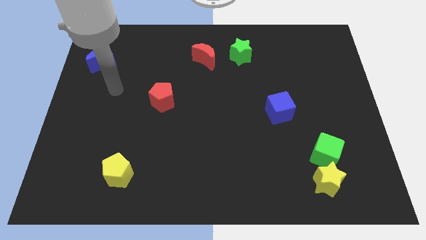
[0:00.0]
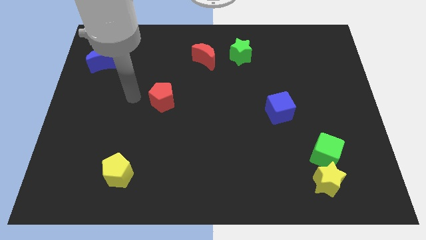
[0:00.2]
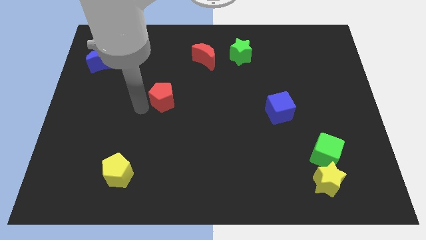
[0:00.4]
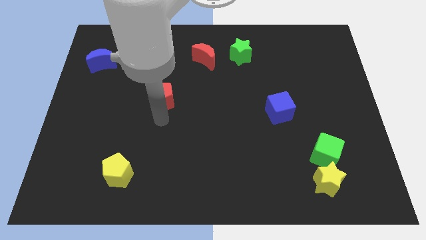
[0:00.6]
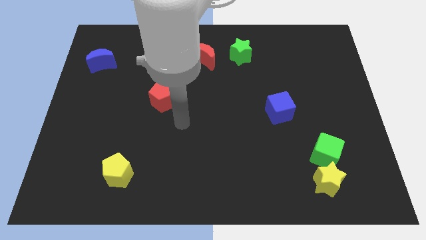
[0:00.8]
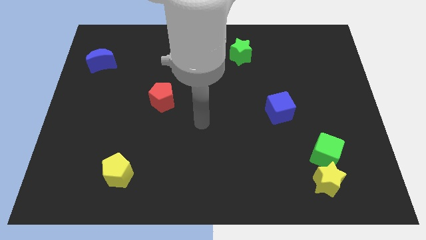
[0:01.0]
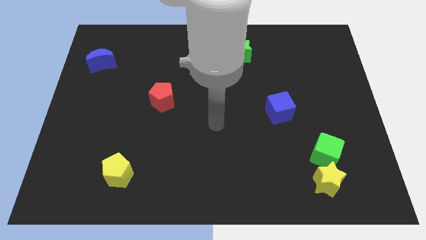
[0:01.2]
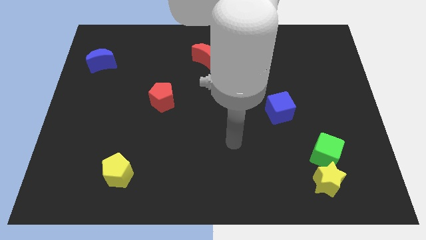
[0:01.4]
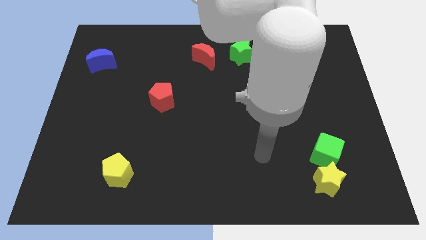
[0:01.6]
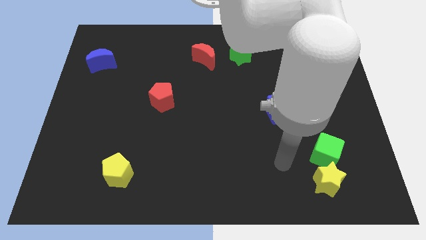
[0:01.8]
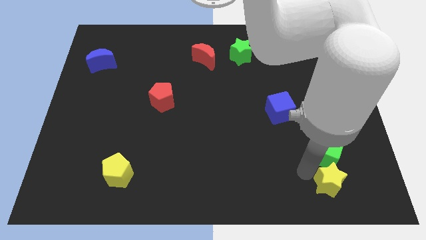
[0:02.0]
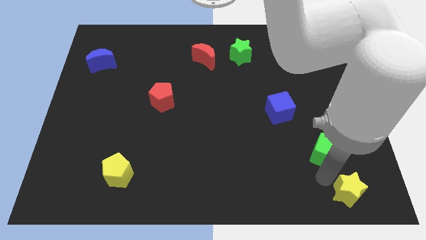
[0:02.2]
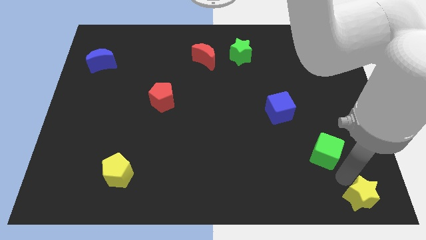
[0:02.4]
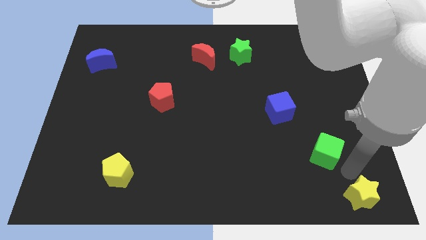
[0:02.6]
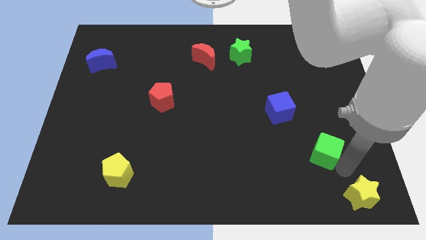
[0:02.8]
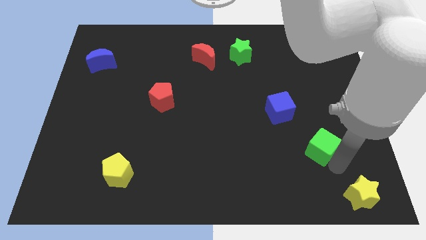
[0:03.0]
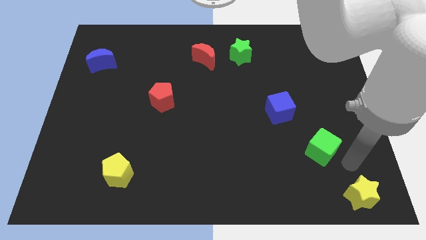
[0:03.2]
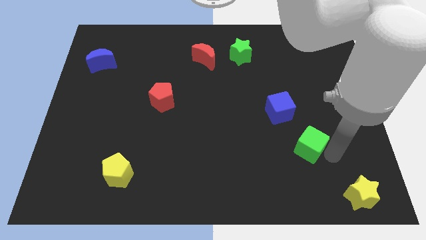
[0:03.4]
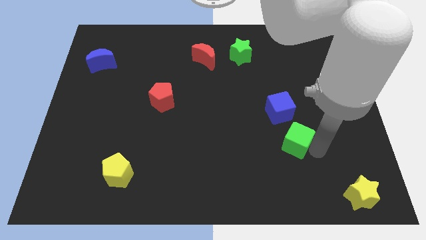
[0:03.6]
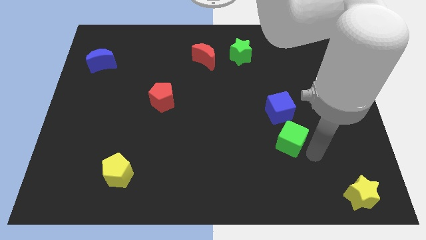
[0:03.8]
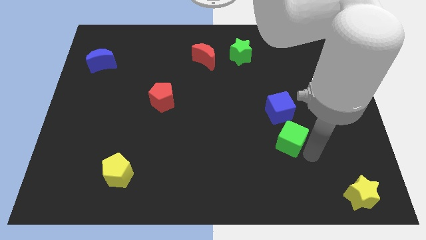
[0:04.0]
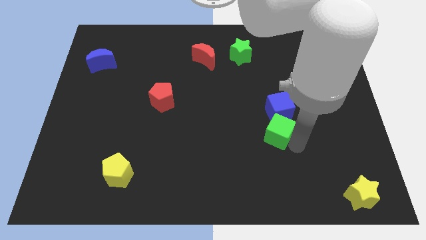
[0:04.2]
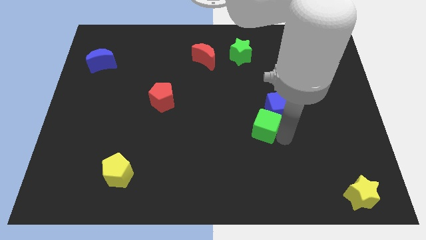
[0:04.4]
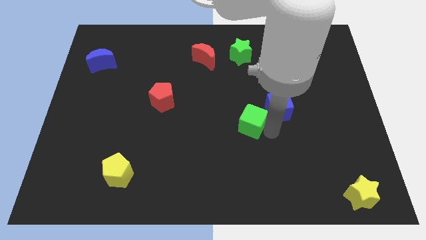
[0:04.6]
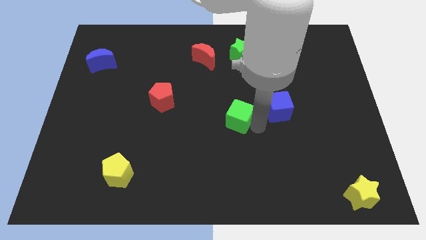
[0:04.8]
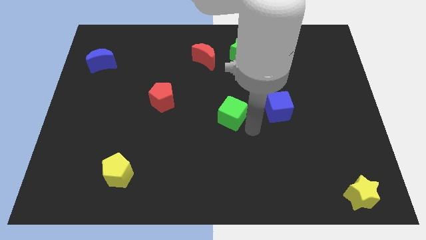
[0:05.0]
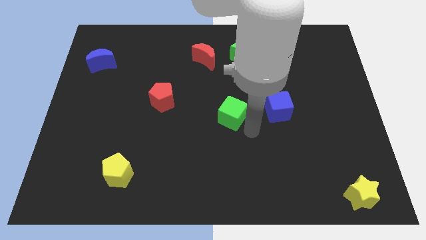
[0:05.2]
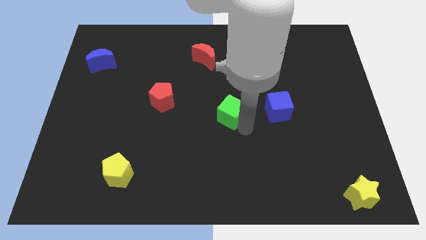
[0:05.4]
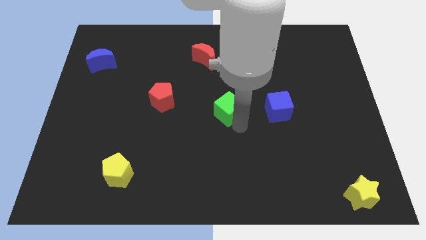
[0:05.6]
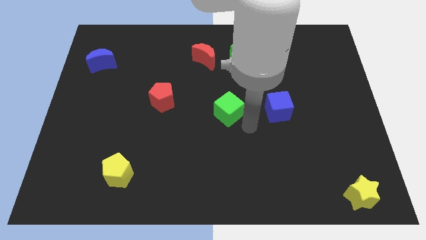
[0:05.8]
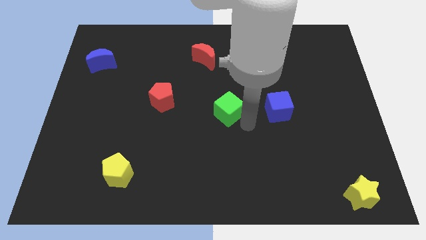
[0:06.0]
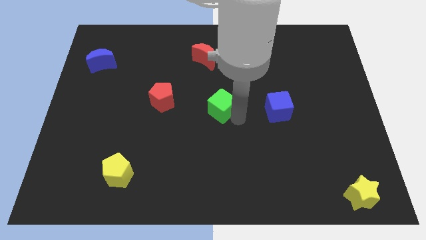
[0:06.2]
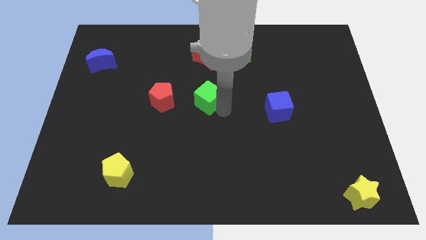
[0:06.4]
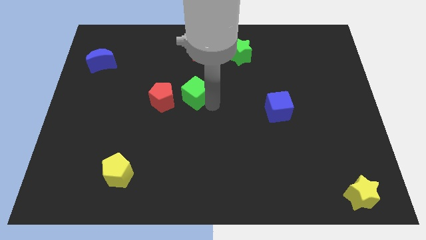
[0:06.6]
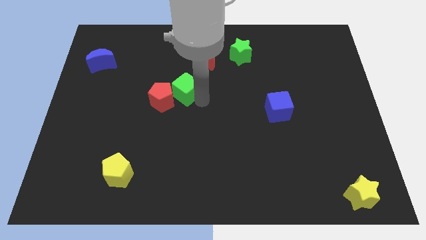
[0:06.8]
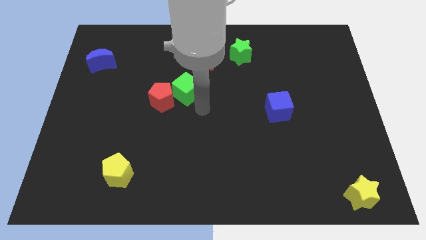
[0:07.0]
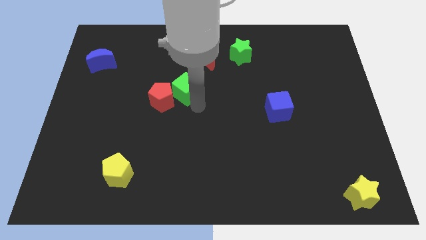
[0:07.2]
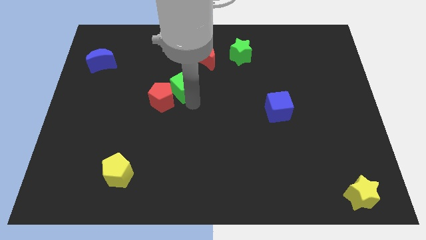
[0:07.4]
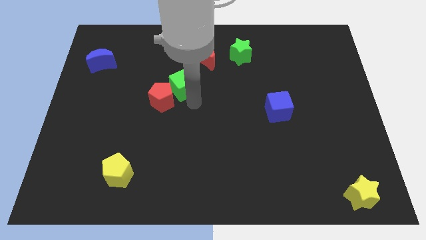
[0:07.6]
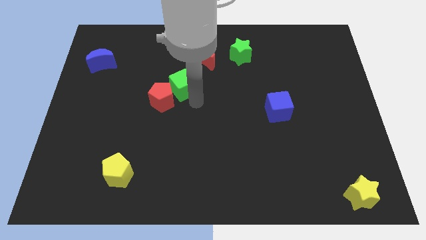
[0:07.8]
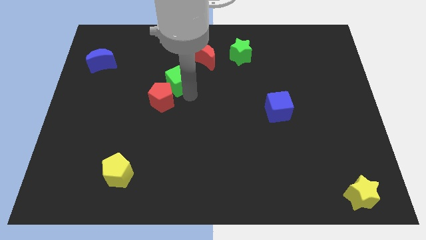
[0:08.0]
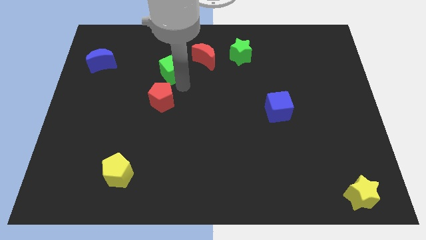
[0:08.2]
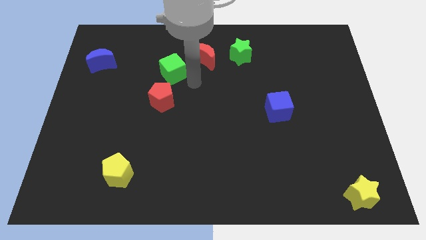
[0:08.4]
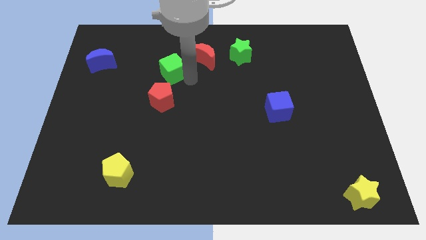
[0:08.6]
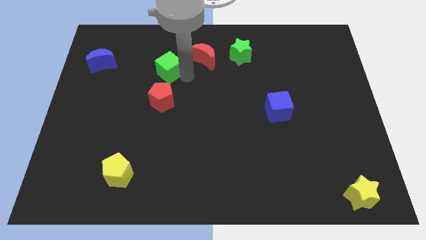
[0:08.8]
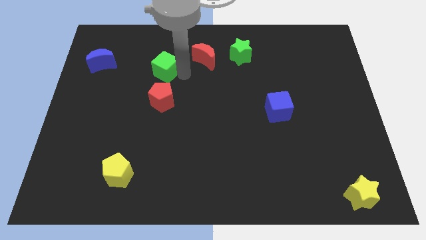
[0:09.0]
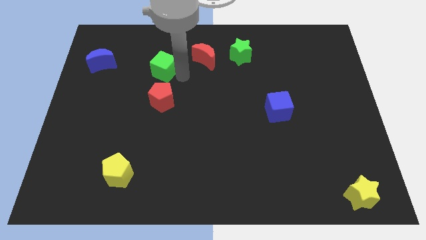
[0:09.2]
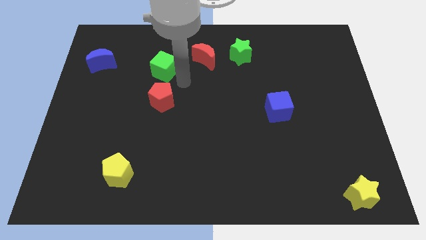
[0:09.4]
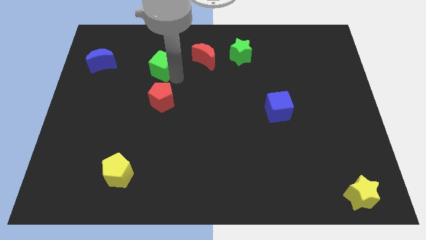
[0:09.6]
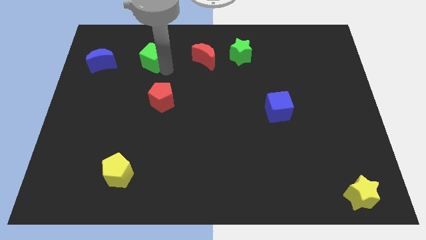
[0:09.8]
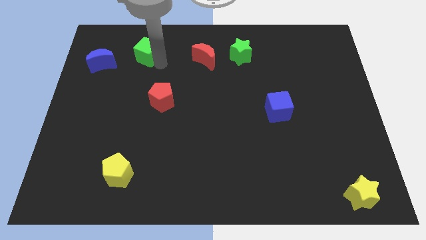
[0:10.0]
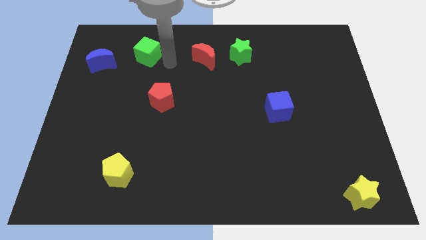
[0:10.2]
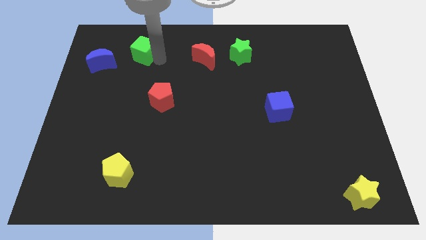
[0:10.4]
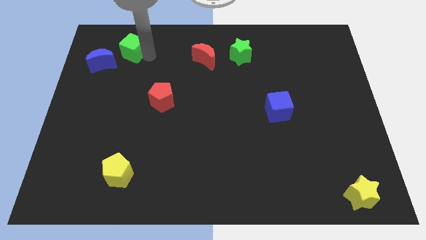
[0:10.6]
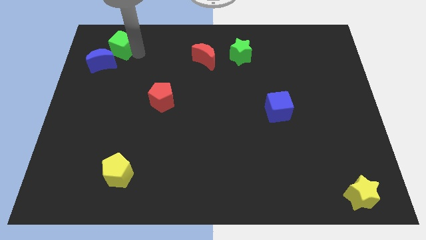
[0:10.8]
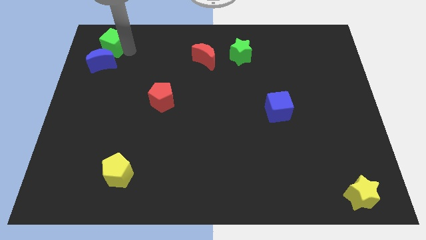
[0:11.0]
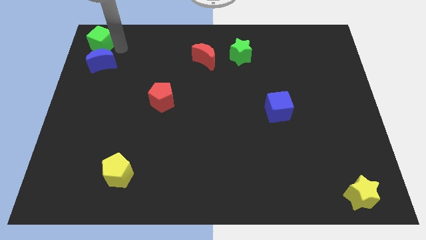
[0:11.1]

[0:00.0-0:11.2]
push the green cube to the top left corner
